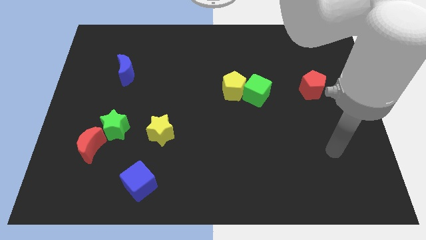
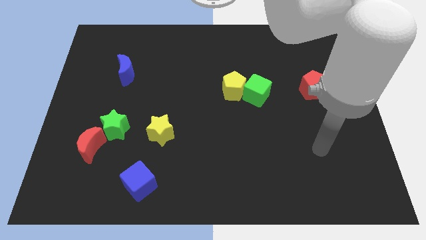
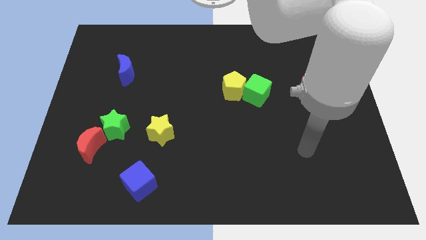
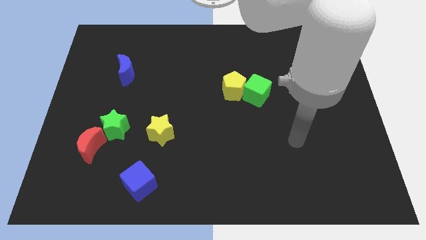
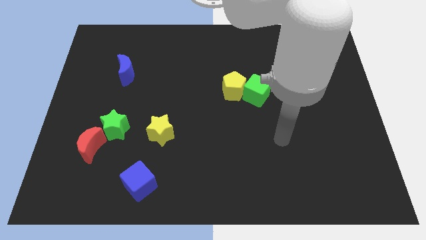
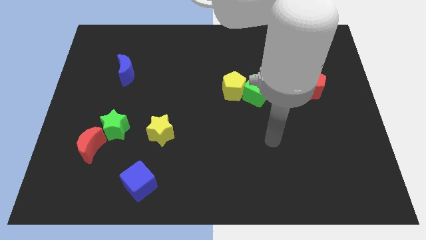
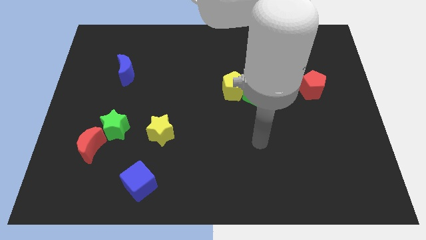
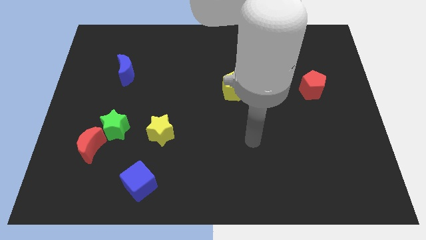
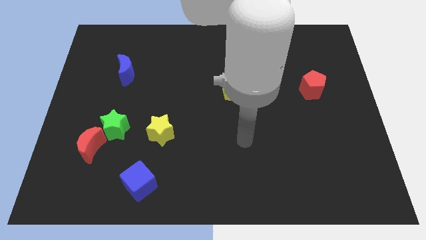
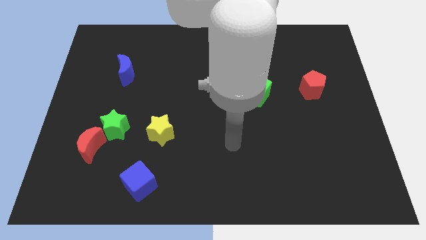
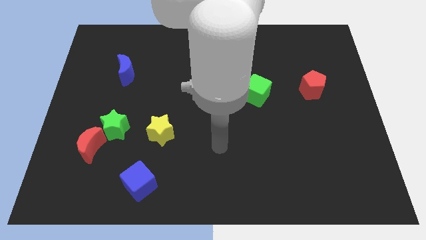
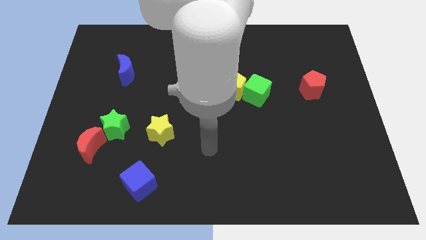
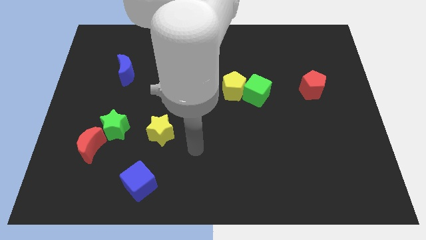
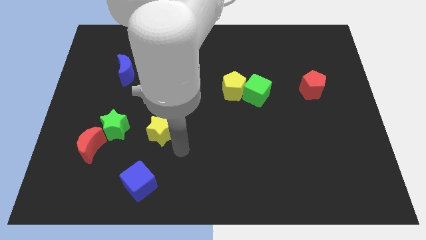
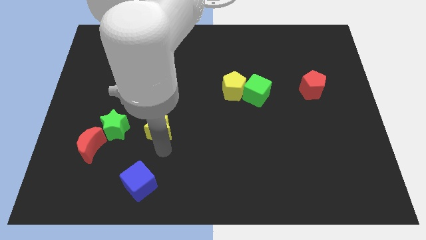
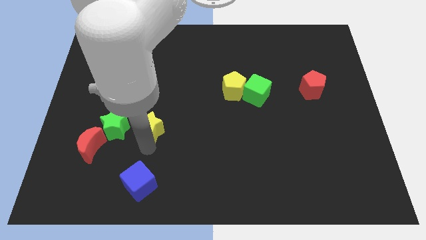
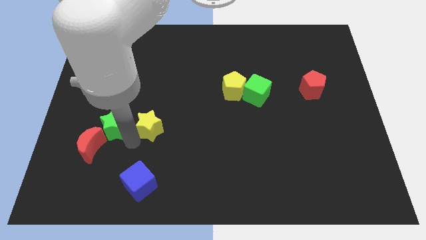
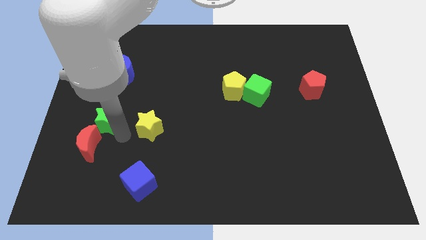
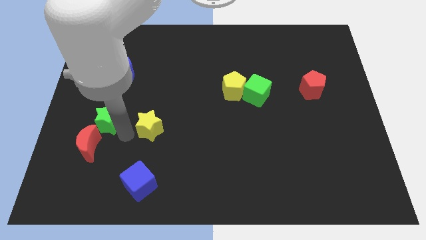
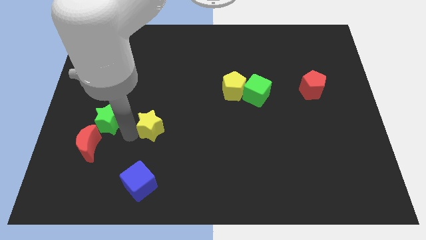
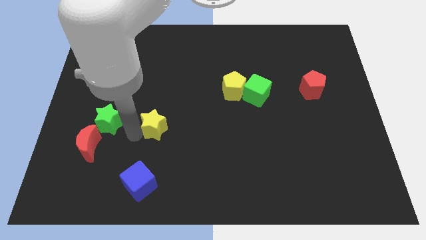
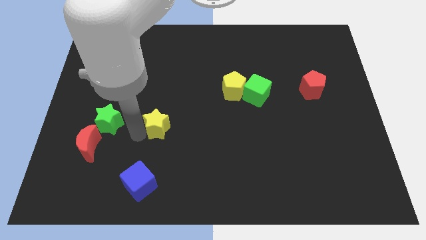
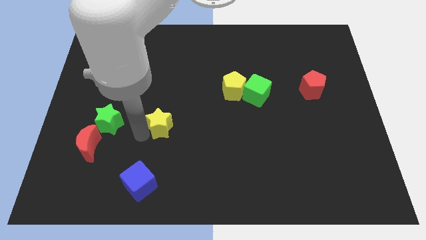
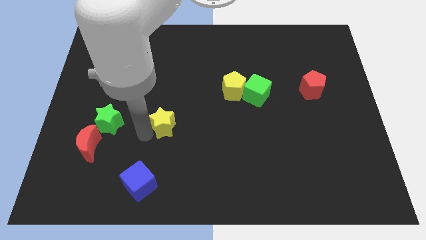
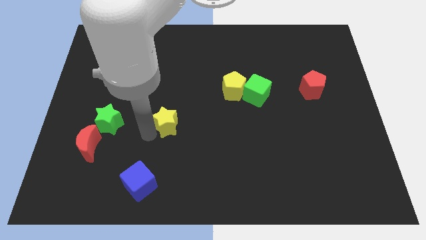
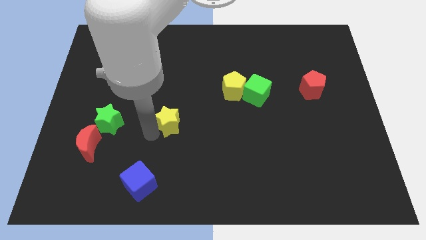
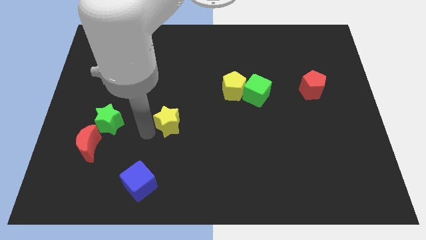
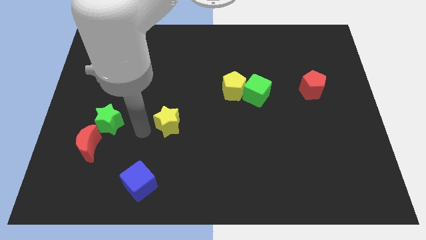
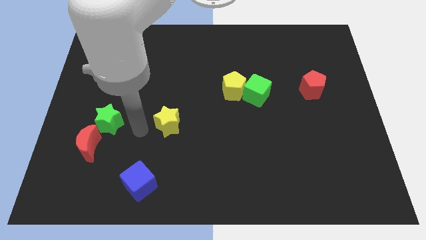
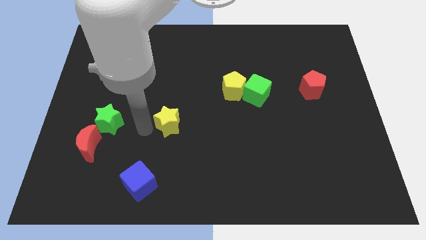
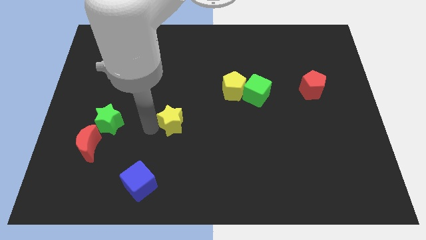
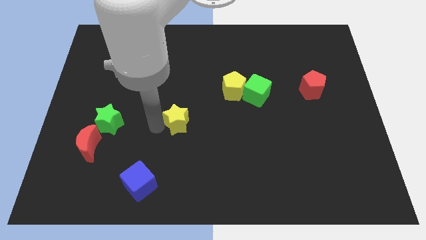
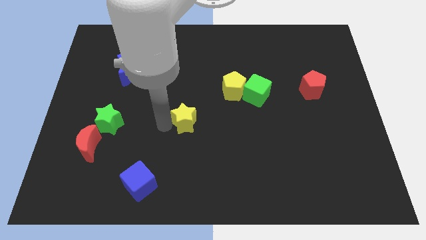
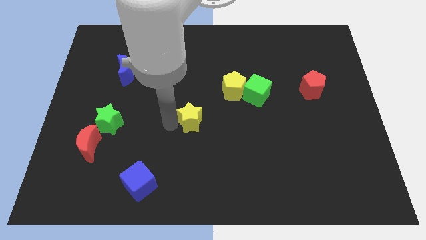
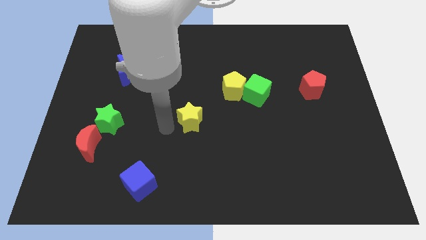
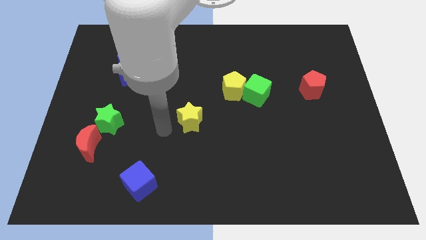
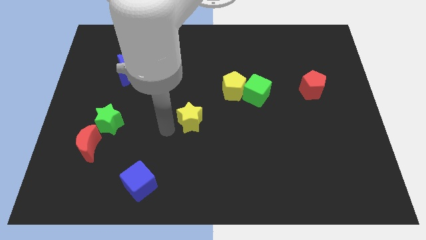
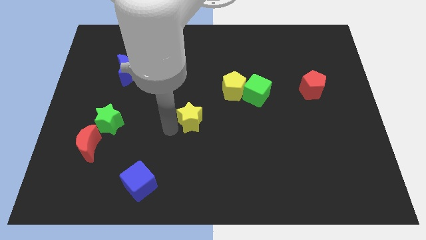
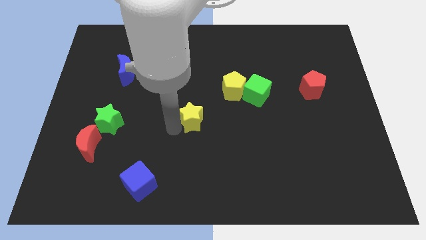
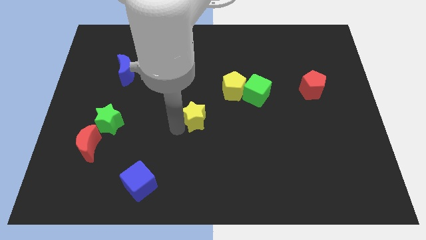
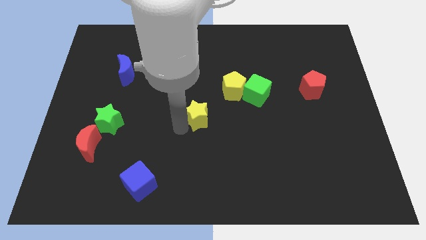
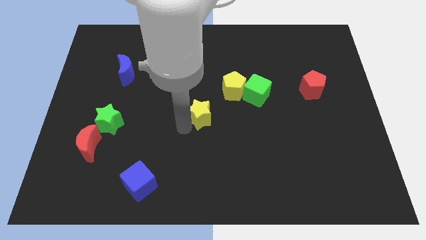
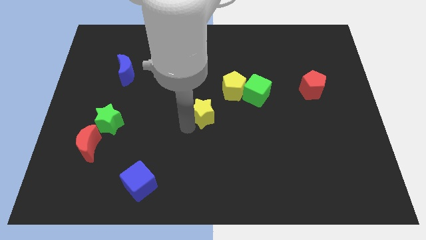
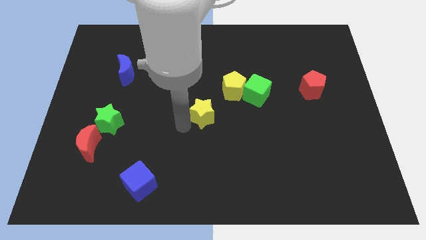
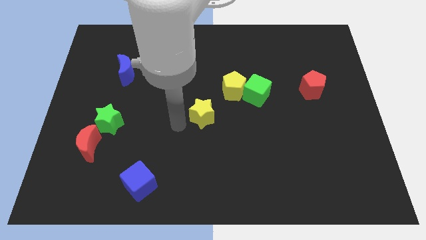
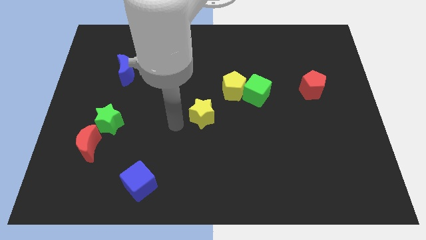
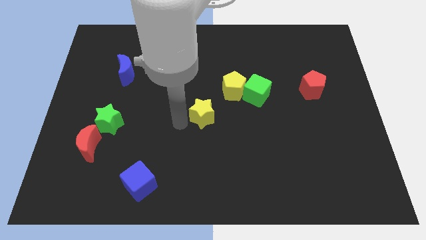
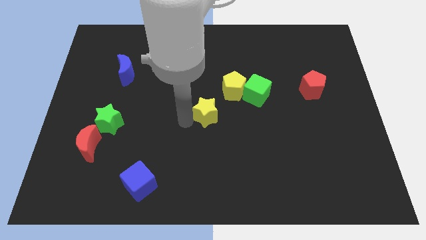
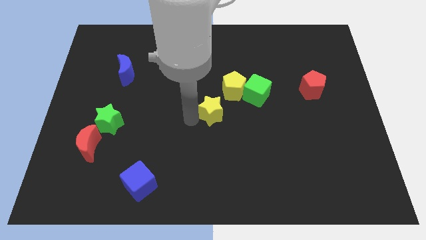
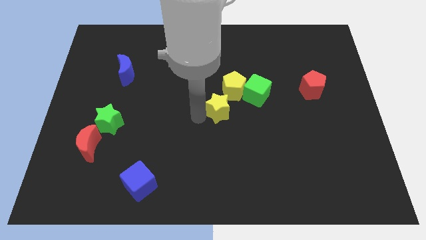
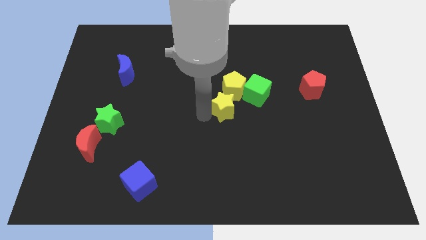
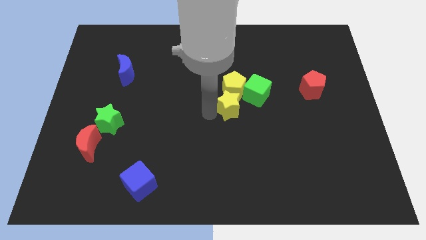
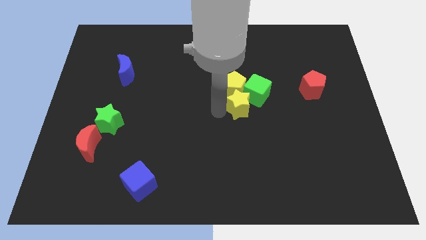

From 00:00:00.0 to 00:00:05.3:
push the yellow star close to the green cube

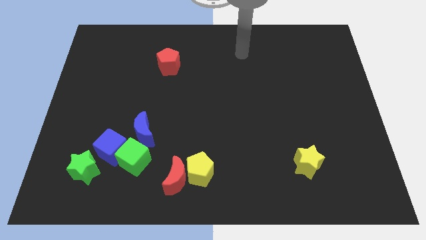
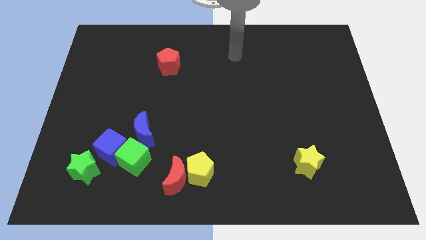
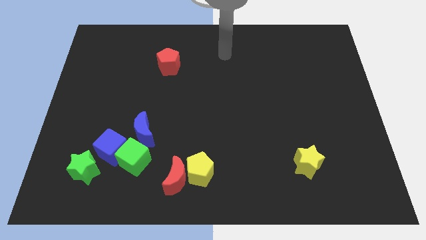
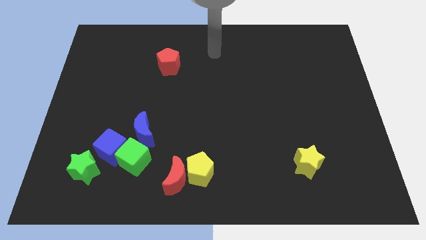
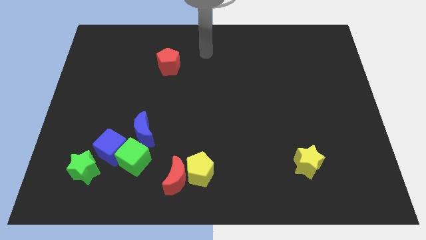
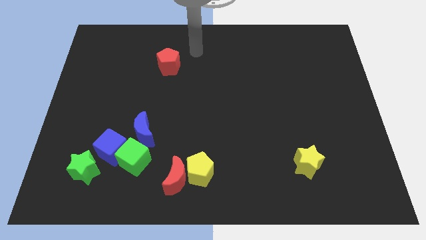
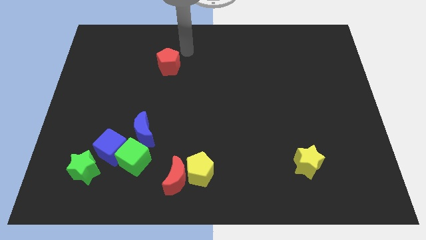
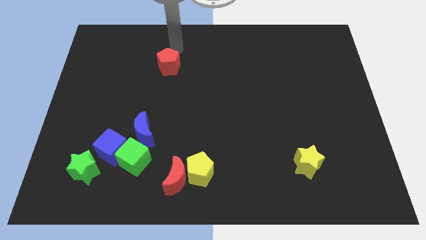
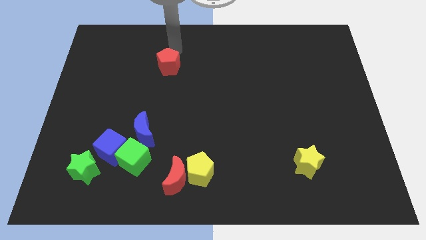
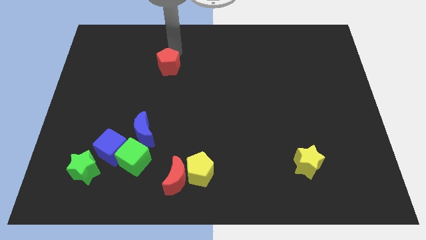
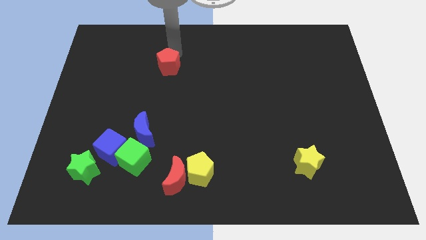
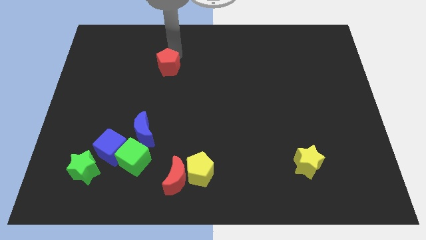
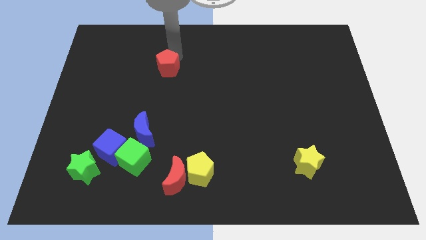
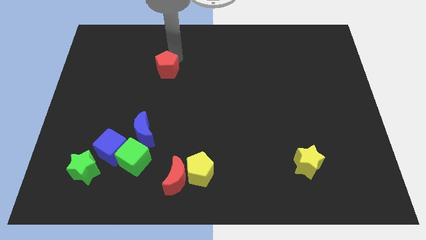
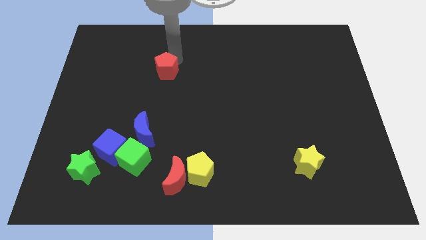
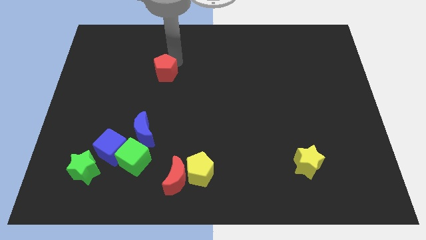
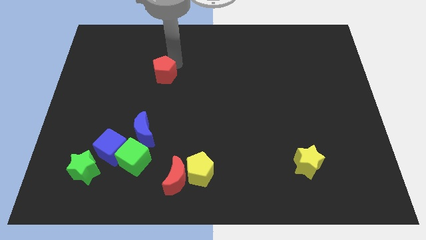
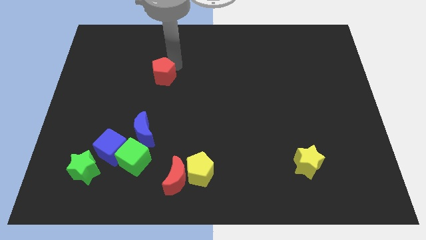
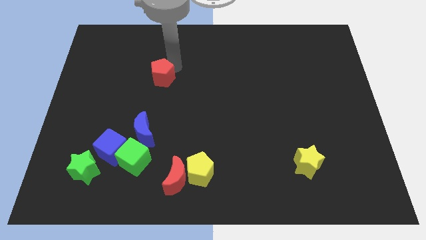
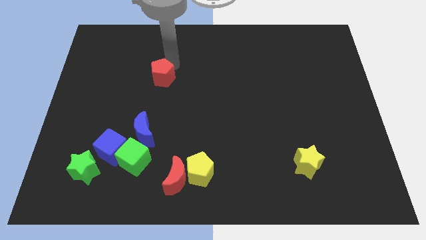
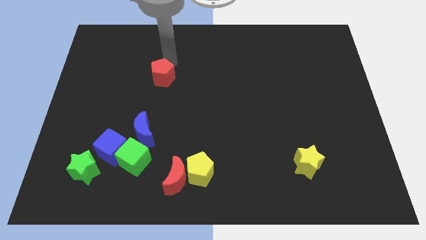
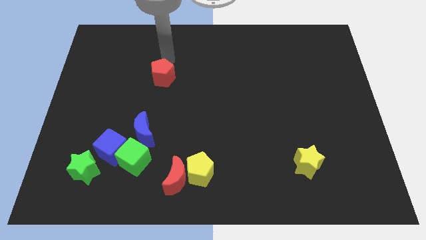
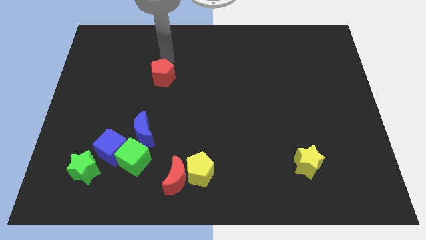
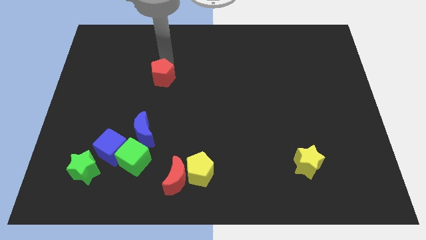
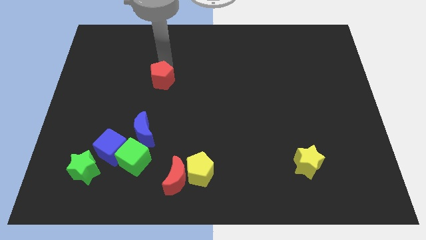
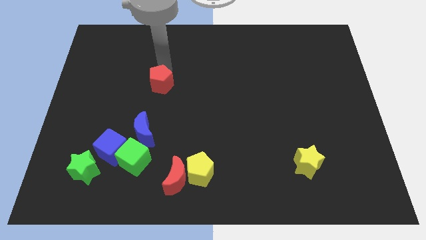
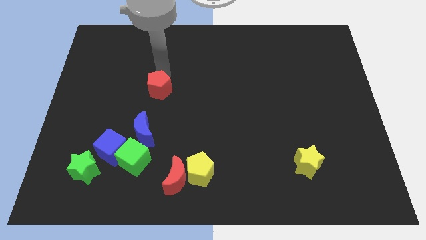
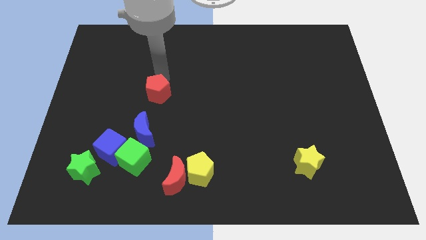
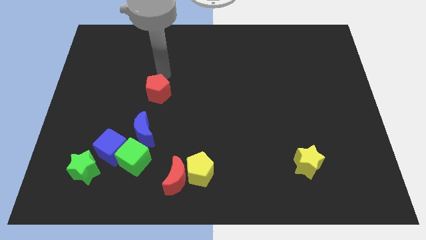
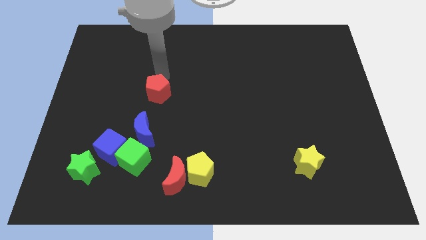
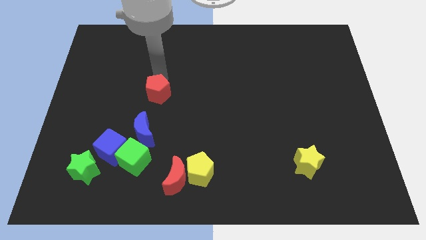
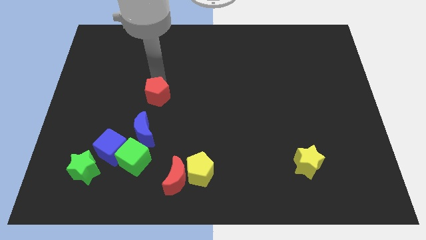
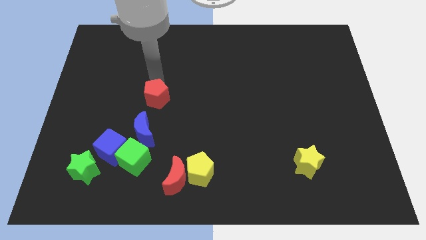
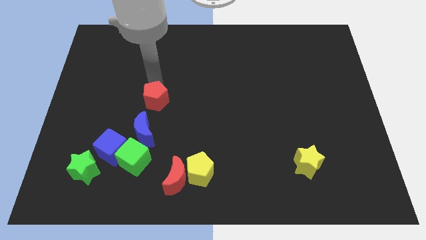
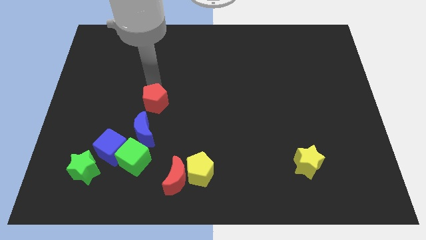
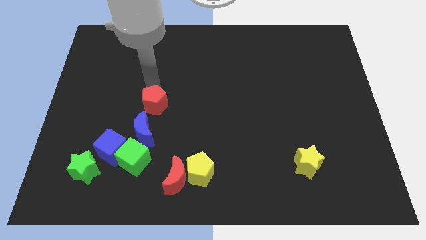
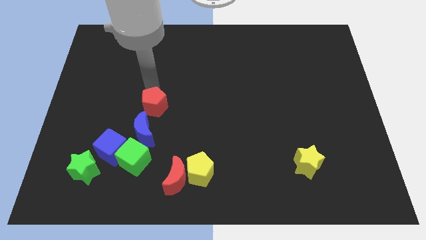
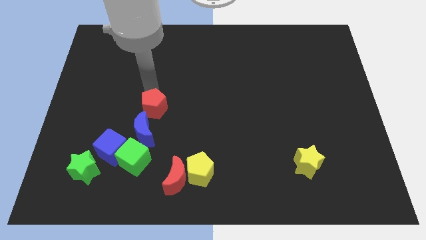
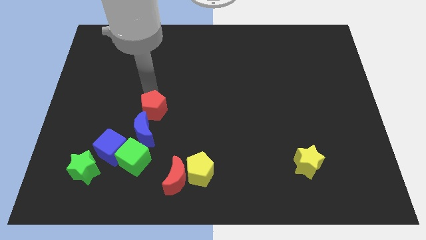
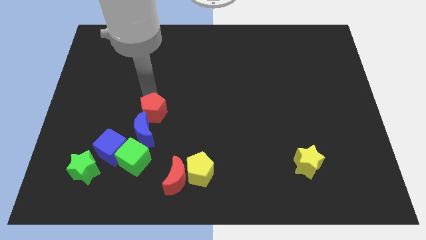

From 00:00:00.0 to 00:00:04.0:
move the red pentagon to the blue moon
